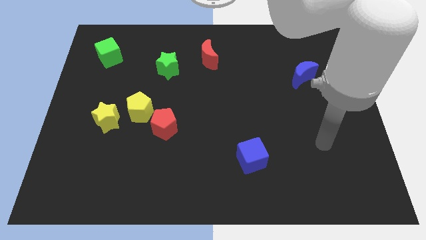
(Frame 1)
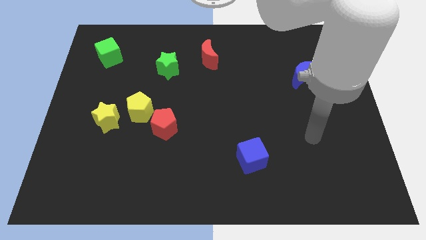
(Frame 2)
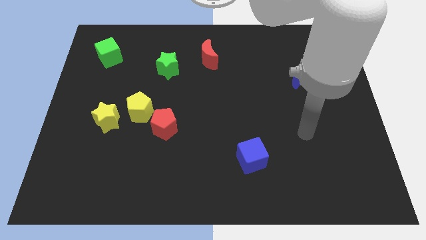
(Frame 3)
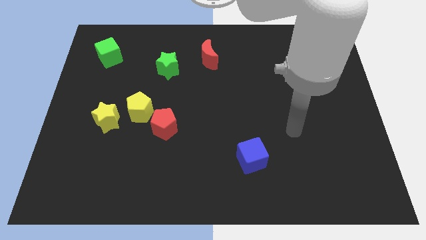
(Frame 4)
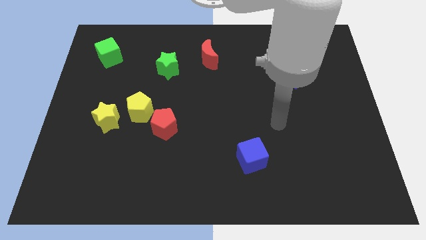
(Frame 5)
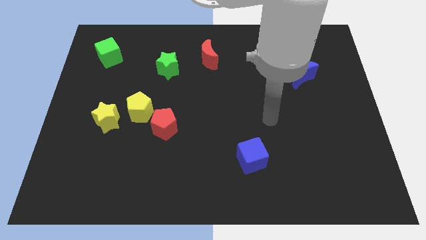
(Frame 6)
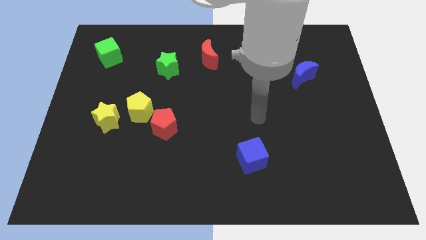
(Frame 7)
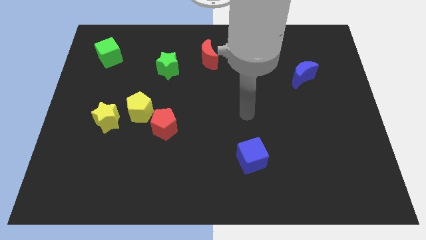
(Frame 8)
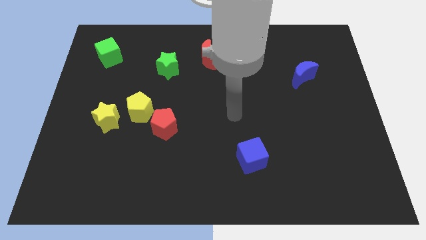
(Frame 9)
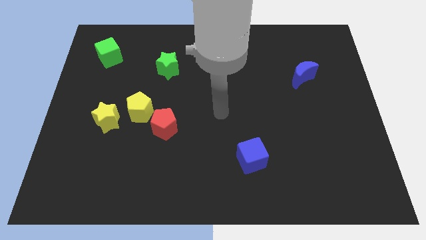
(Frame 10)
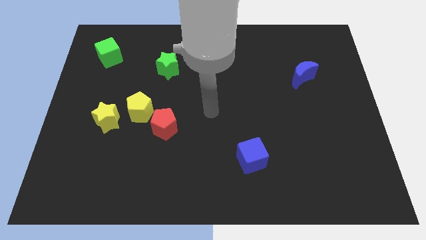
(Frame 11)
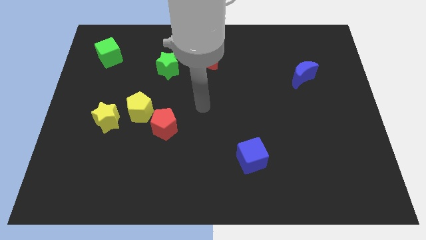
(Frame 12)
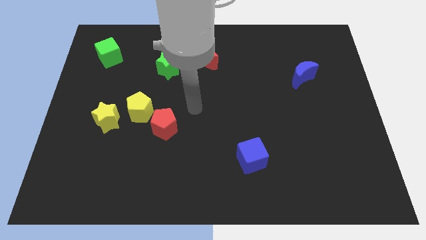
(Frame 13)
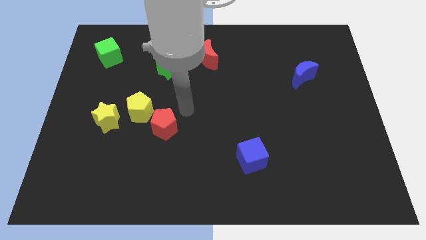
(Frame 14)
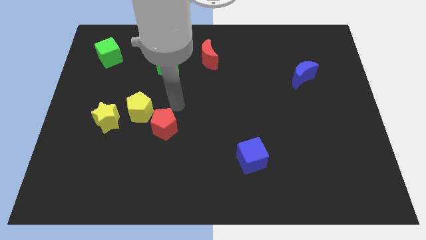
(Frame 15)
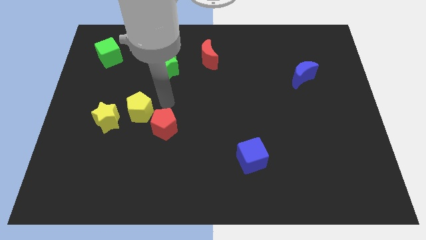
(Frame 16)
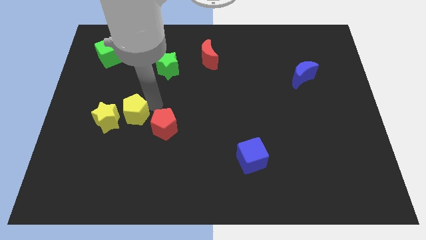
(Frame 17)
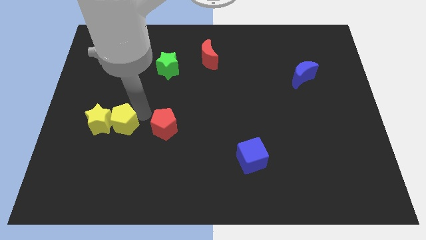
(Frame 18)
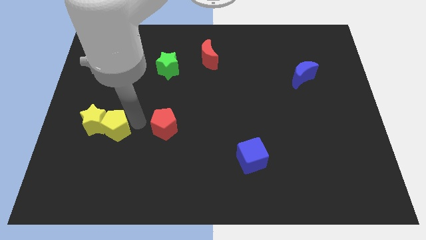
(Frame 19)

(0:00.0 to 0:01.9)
pull the red pentagon apart from the yellow pentagon

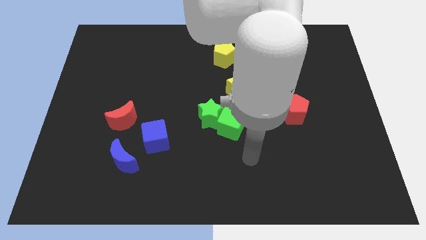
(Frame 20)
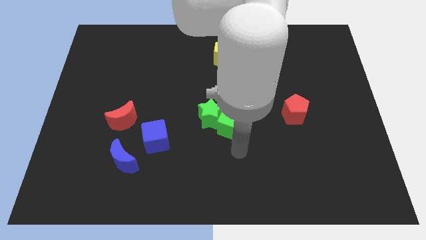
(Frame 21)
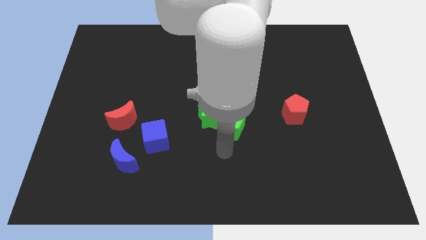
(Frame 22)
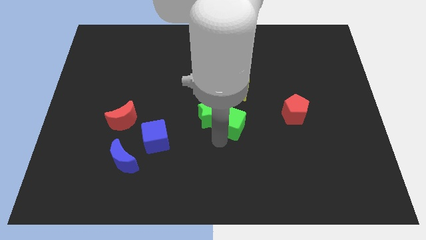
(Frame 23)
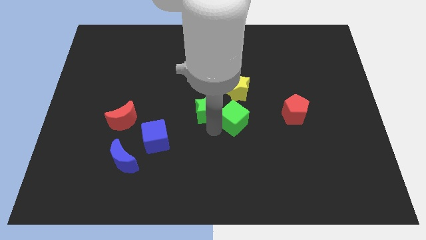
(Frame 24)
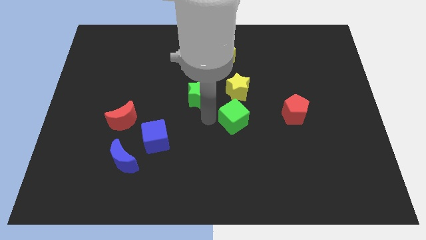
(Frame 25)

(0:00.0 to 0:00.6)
pull the green cube apart from the green star

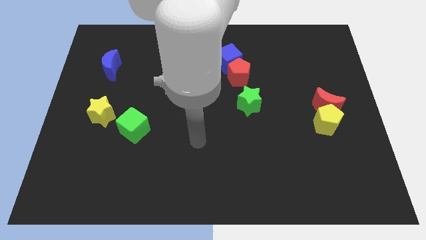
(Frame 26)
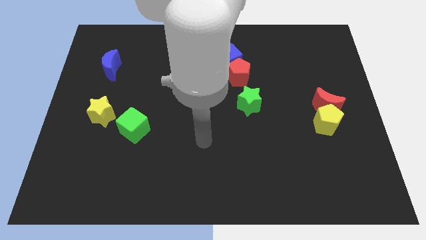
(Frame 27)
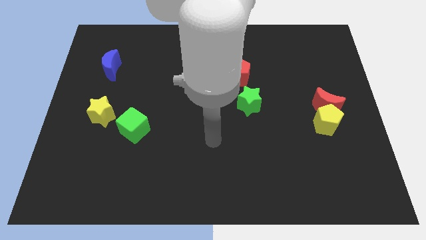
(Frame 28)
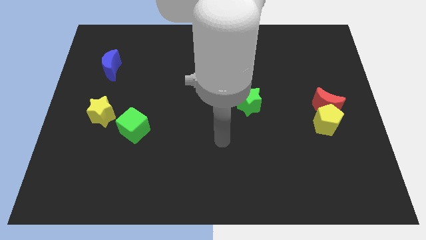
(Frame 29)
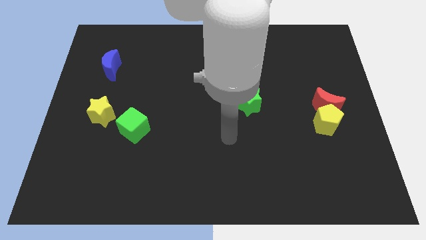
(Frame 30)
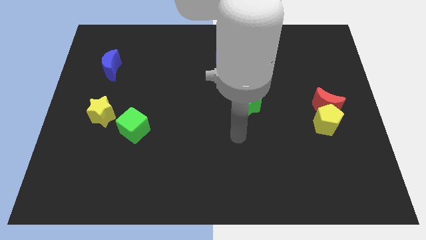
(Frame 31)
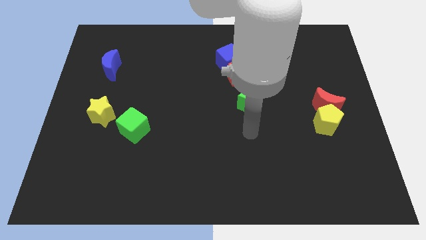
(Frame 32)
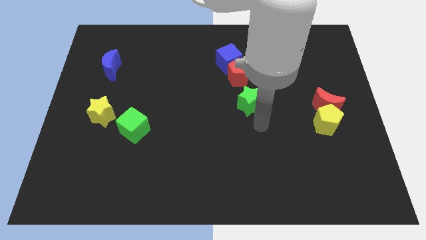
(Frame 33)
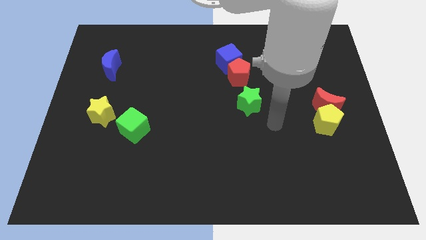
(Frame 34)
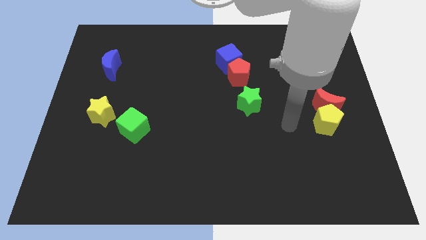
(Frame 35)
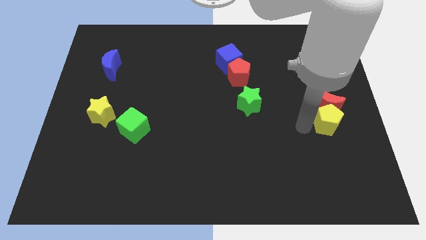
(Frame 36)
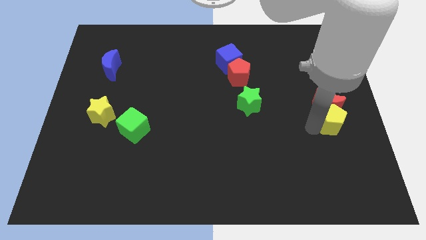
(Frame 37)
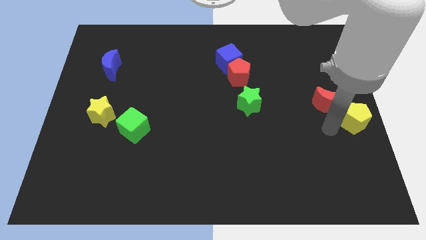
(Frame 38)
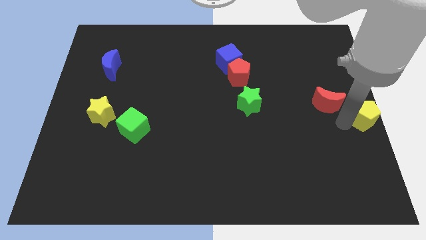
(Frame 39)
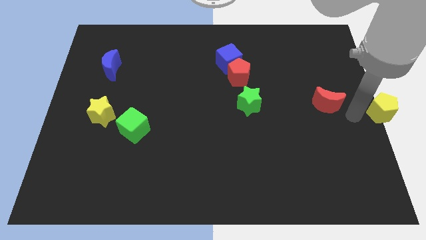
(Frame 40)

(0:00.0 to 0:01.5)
pull the red moon apart from the yellow pentagon

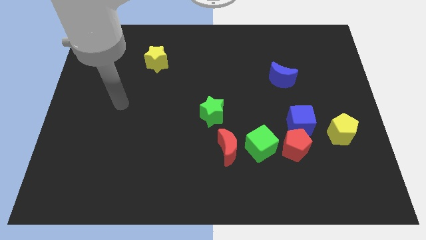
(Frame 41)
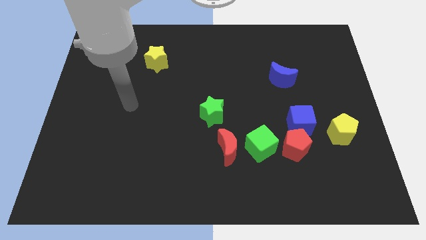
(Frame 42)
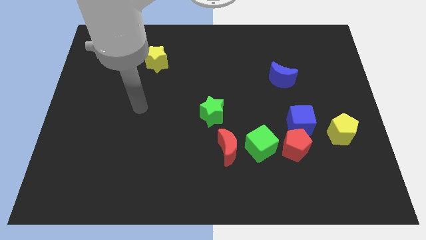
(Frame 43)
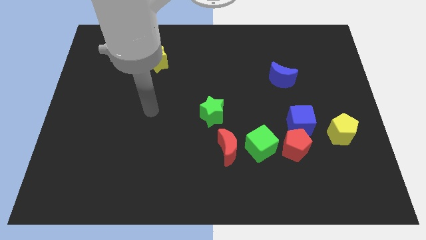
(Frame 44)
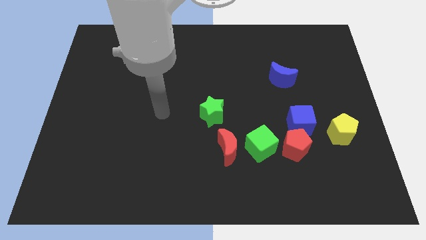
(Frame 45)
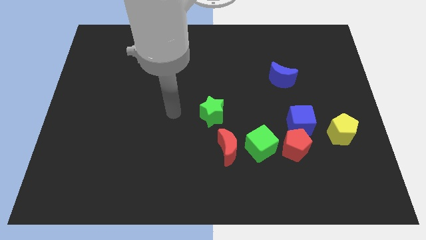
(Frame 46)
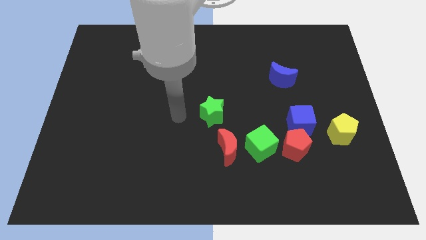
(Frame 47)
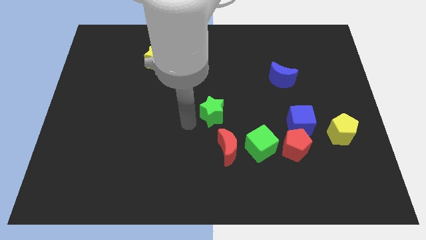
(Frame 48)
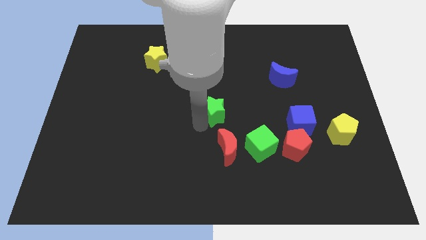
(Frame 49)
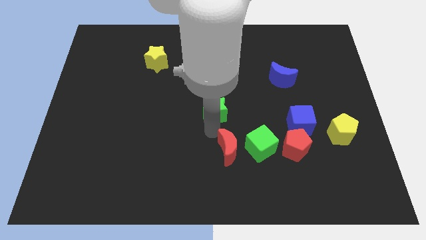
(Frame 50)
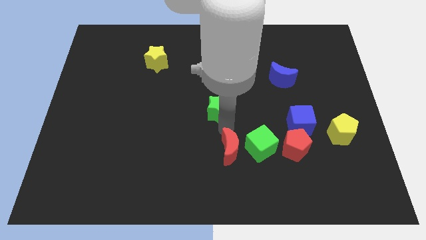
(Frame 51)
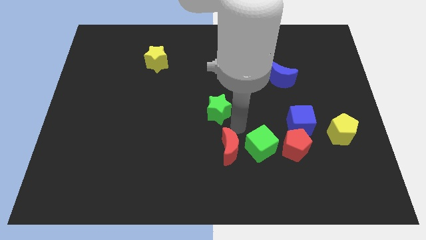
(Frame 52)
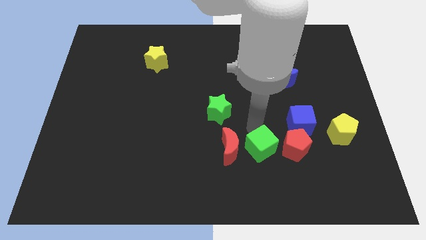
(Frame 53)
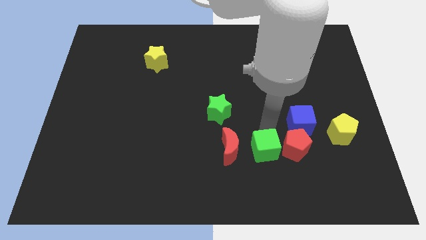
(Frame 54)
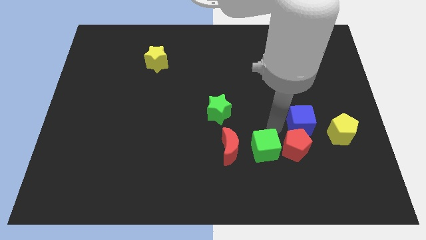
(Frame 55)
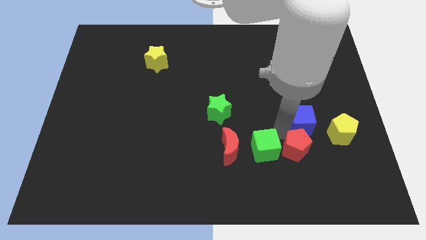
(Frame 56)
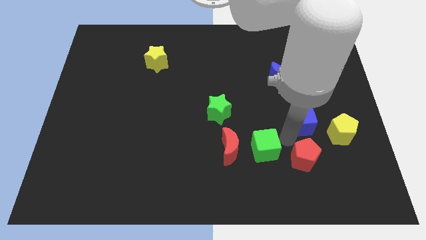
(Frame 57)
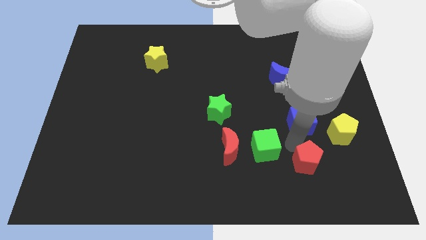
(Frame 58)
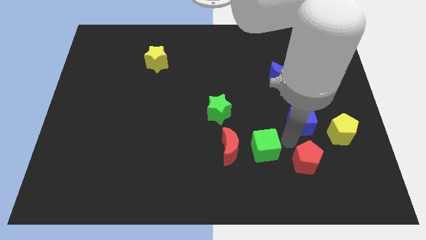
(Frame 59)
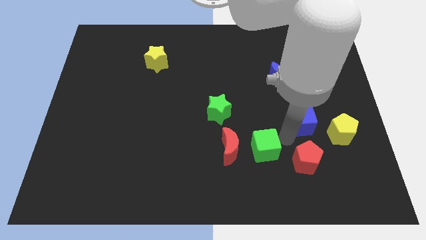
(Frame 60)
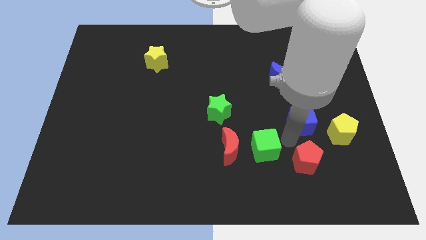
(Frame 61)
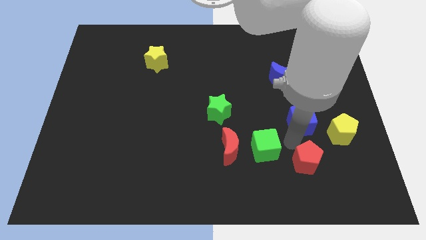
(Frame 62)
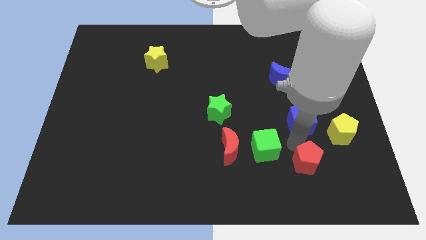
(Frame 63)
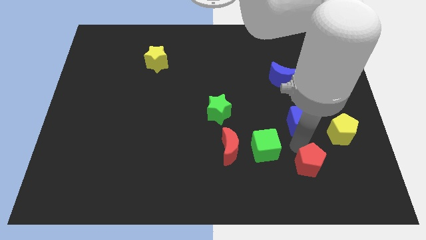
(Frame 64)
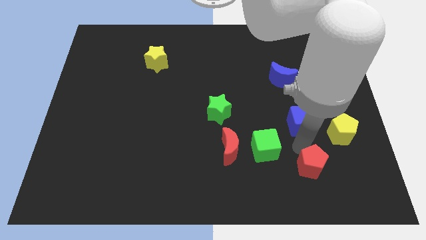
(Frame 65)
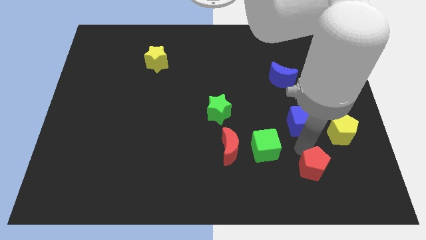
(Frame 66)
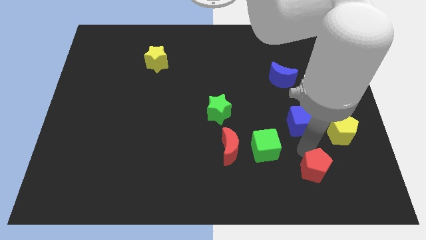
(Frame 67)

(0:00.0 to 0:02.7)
pull the red pentagon apart from the blue cube and green cube

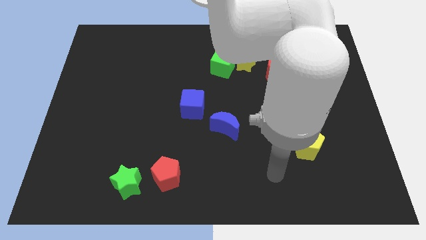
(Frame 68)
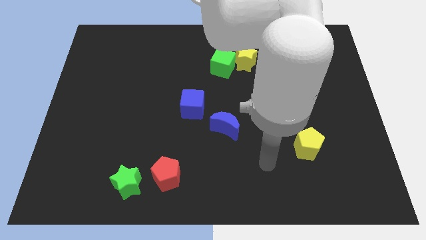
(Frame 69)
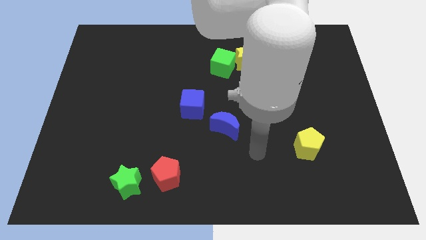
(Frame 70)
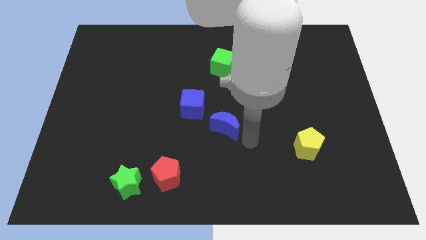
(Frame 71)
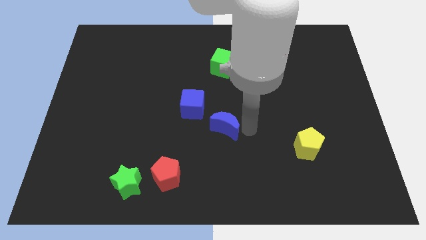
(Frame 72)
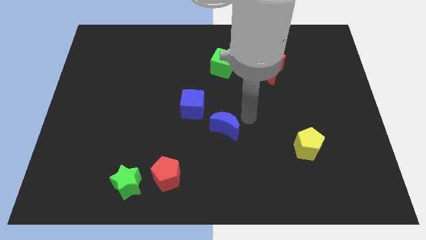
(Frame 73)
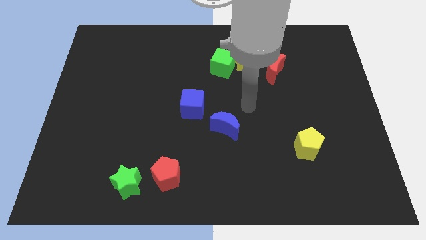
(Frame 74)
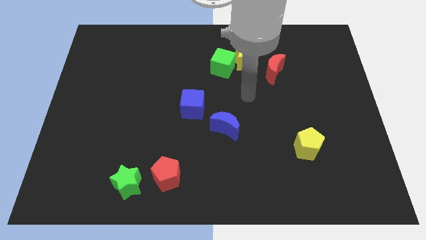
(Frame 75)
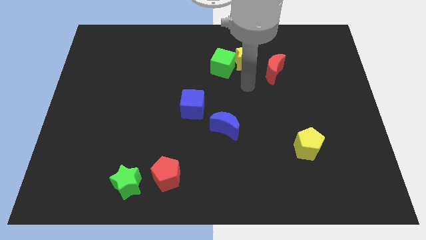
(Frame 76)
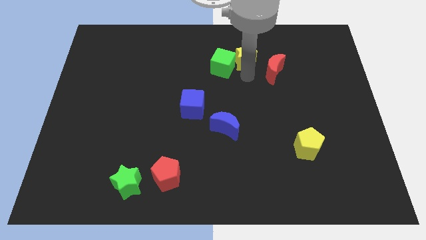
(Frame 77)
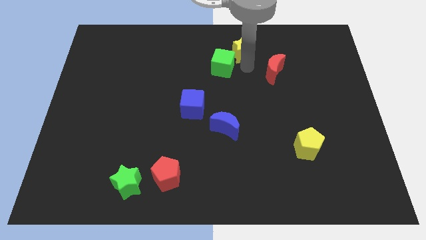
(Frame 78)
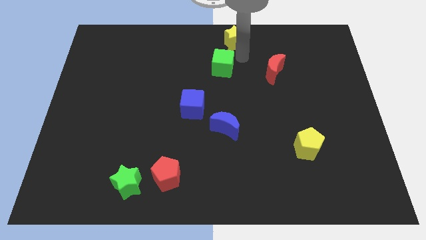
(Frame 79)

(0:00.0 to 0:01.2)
move the green cube away from the yellow star

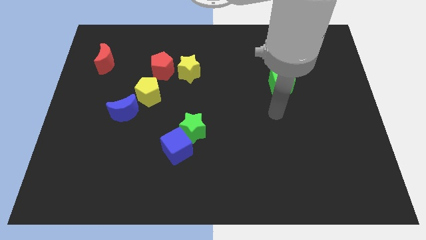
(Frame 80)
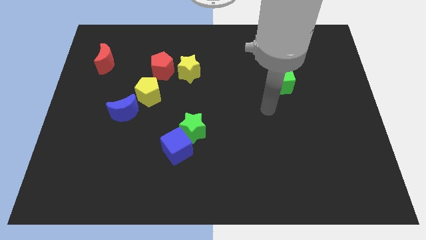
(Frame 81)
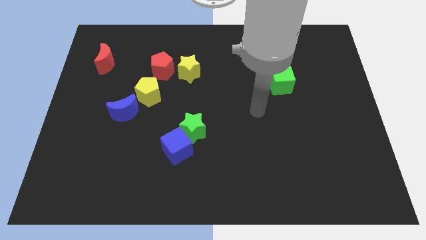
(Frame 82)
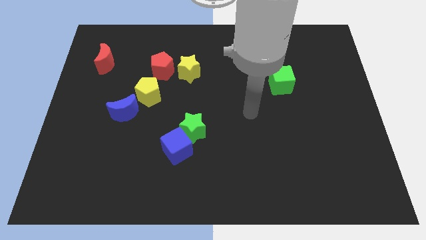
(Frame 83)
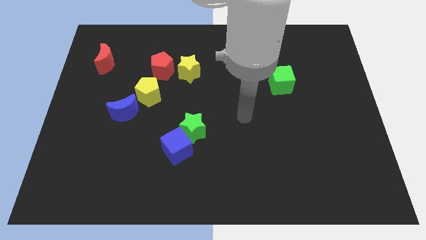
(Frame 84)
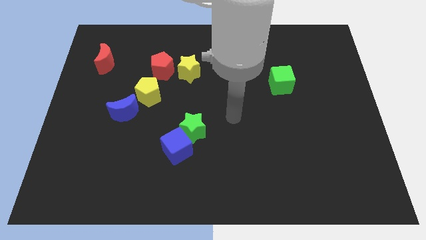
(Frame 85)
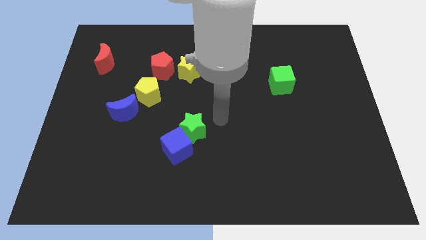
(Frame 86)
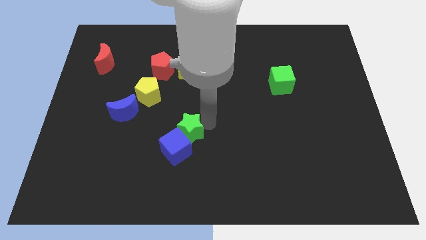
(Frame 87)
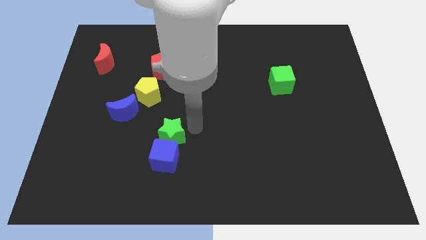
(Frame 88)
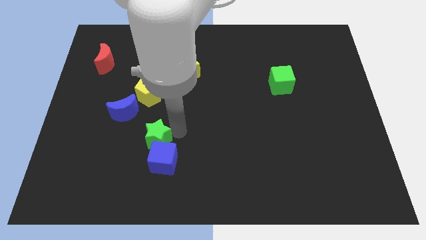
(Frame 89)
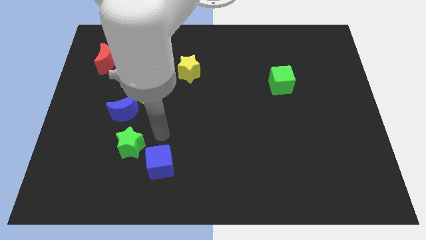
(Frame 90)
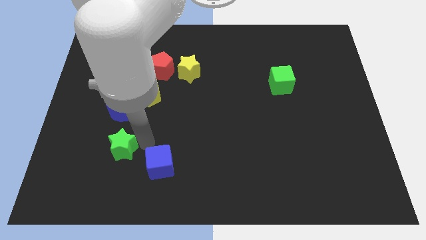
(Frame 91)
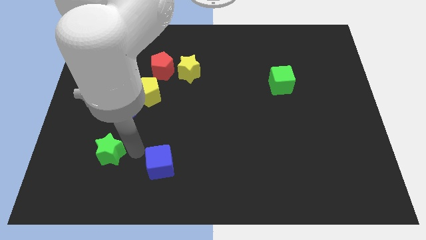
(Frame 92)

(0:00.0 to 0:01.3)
pull the blue cube apart from the green star

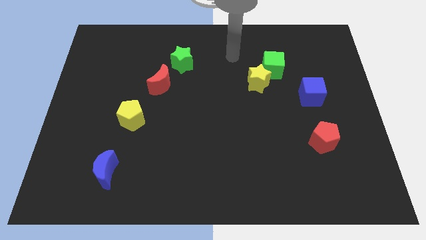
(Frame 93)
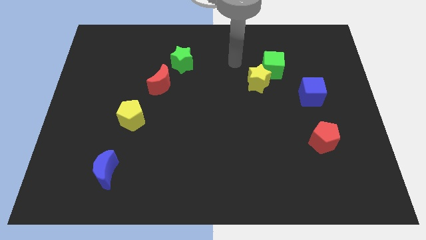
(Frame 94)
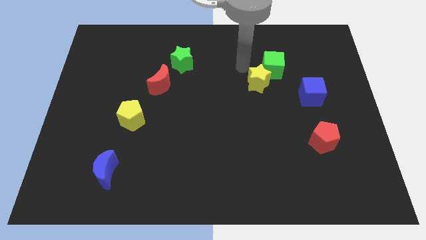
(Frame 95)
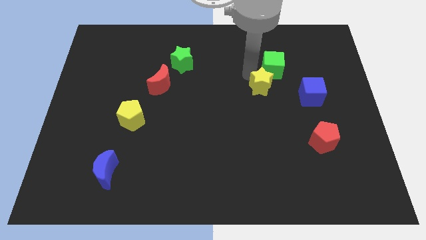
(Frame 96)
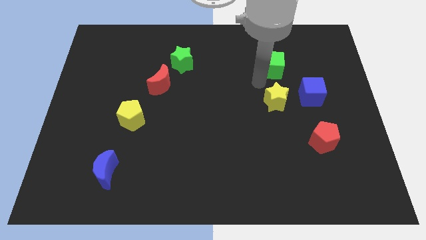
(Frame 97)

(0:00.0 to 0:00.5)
pull the green cube apart from the yellow star
